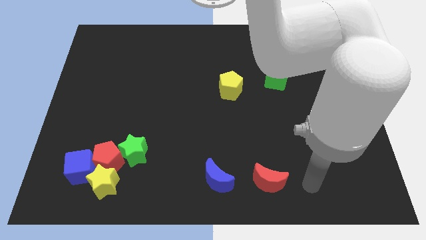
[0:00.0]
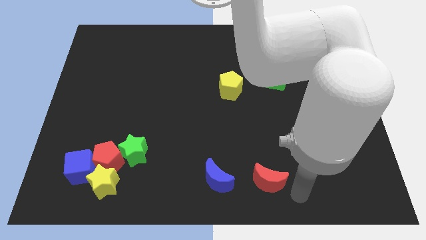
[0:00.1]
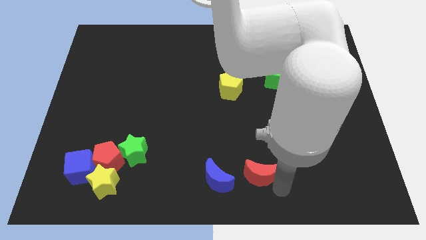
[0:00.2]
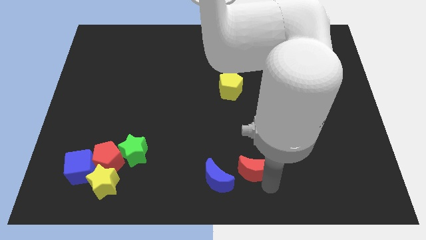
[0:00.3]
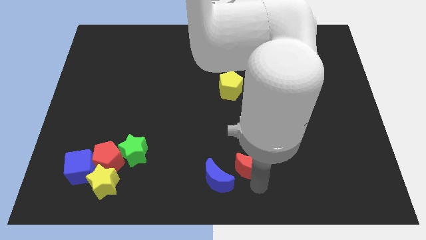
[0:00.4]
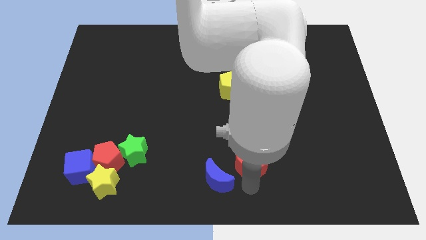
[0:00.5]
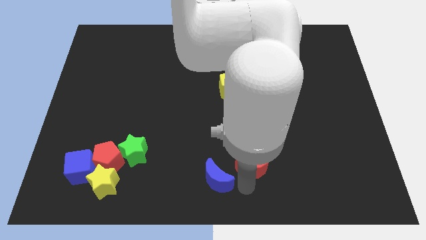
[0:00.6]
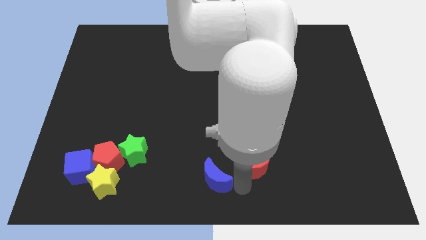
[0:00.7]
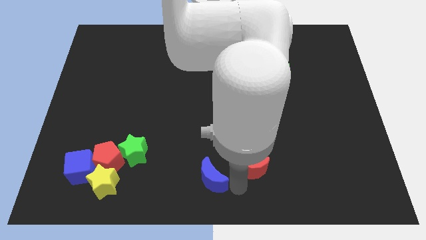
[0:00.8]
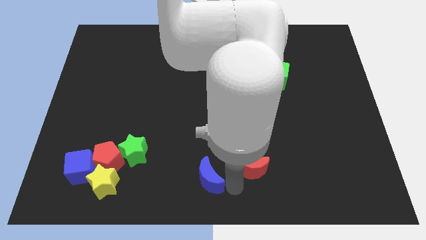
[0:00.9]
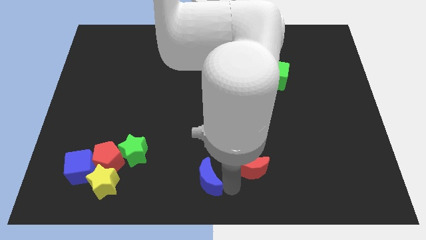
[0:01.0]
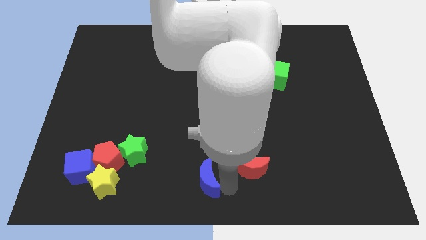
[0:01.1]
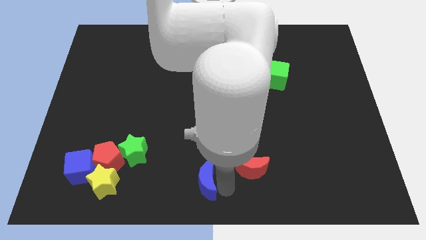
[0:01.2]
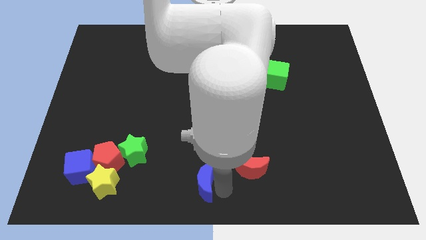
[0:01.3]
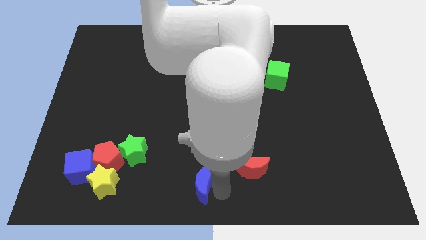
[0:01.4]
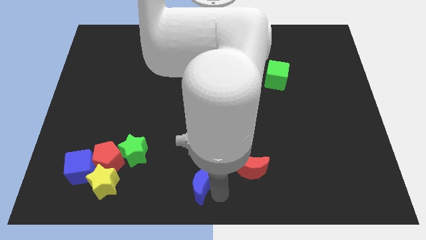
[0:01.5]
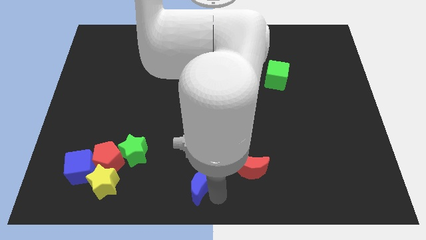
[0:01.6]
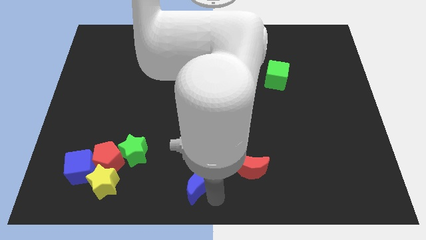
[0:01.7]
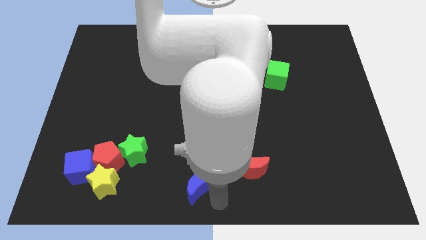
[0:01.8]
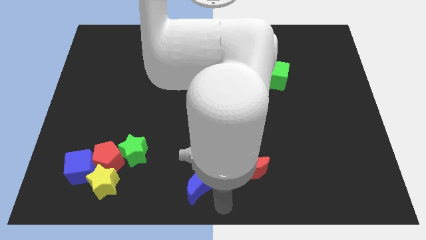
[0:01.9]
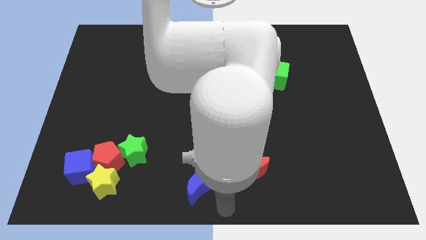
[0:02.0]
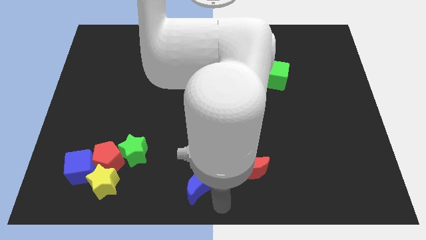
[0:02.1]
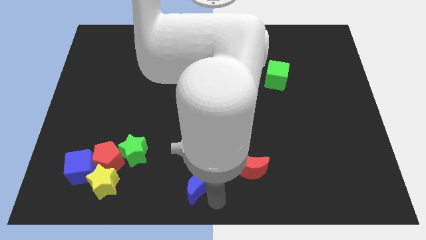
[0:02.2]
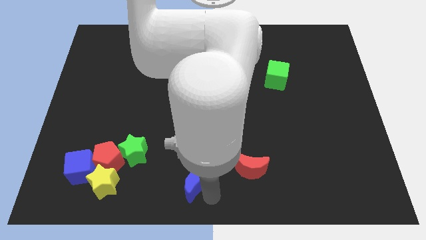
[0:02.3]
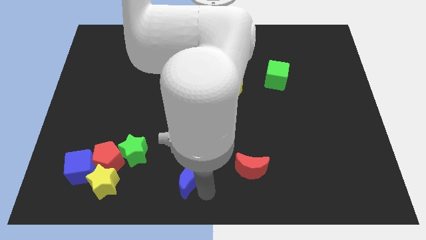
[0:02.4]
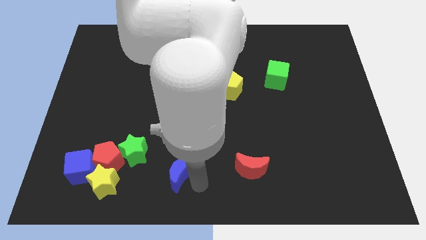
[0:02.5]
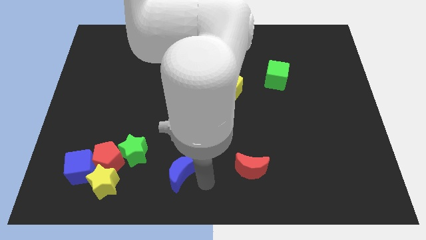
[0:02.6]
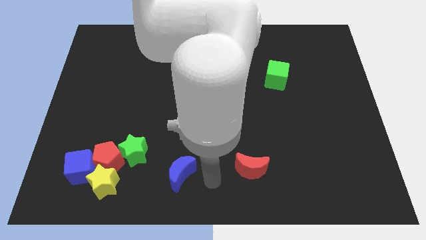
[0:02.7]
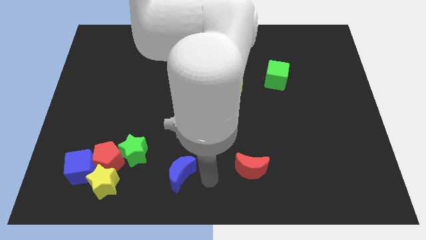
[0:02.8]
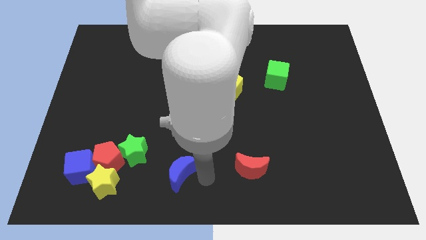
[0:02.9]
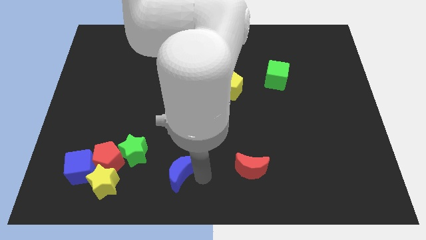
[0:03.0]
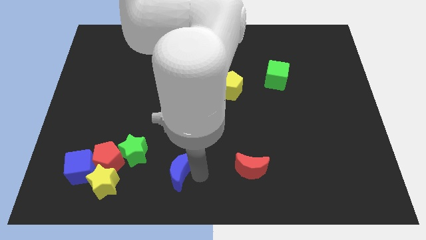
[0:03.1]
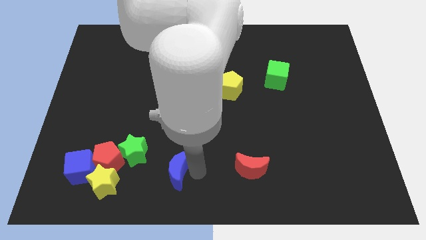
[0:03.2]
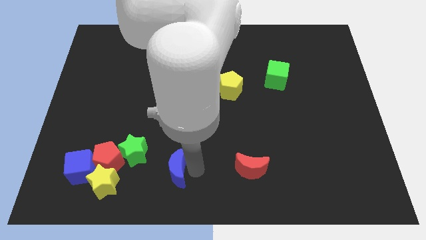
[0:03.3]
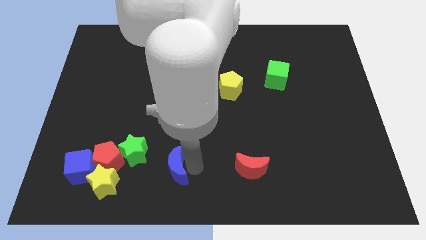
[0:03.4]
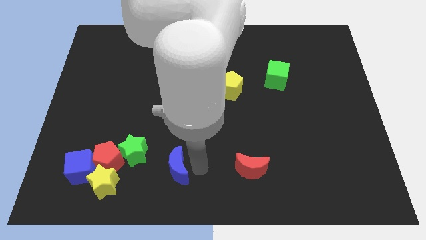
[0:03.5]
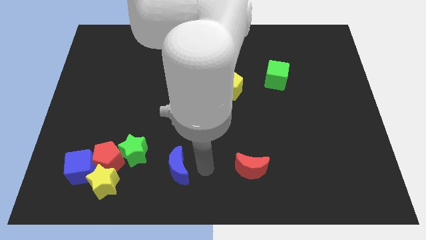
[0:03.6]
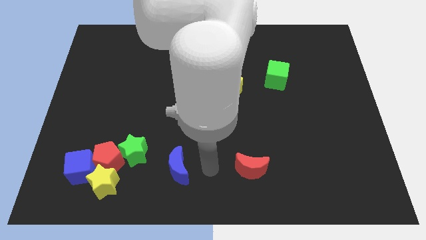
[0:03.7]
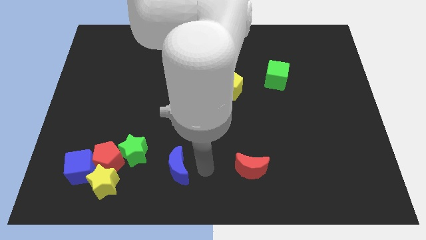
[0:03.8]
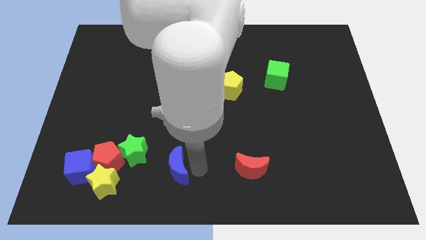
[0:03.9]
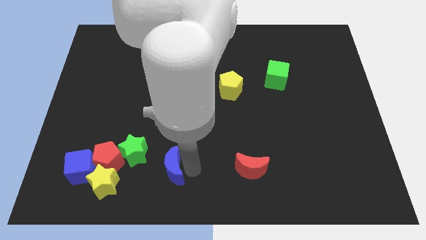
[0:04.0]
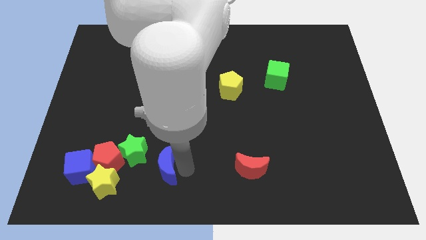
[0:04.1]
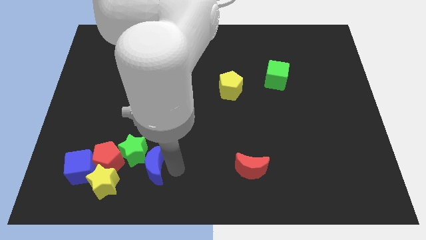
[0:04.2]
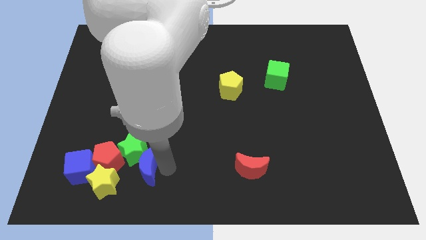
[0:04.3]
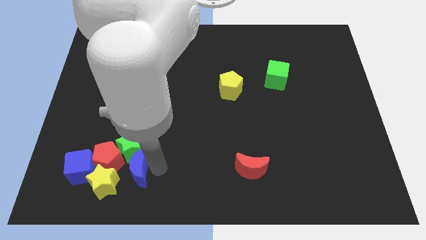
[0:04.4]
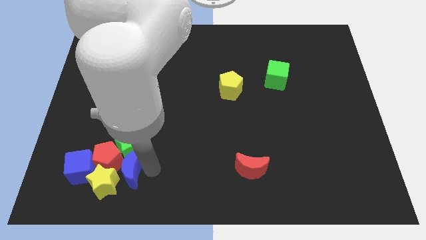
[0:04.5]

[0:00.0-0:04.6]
put the blue moon close to the red pentagon

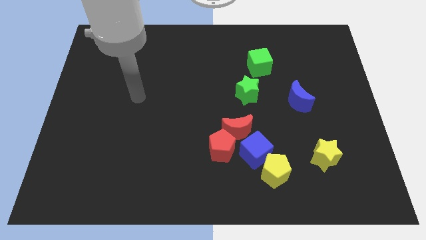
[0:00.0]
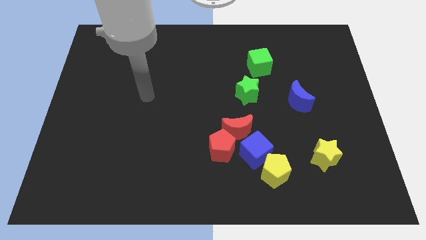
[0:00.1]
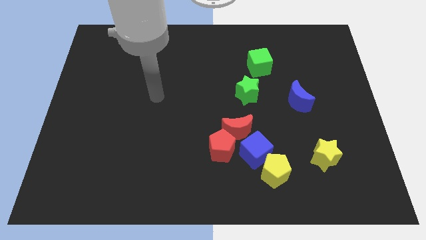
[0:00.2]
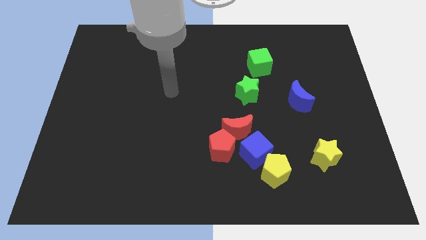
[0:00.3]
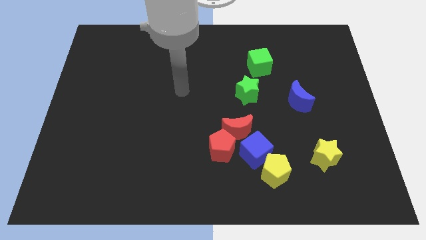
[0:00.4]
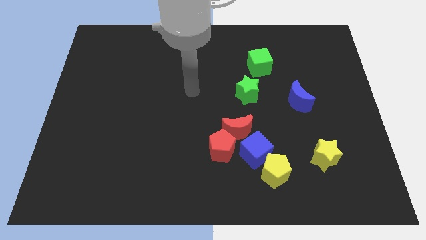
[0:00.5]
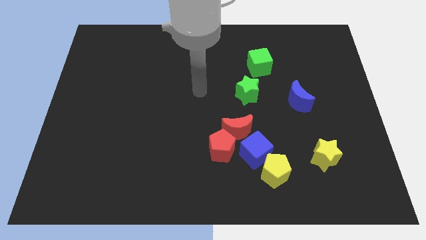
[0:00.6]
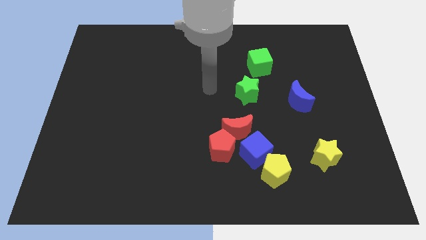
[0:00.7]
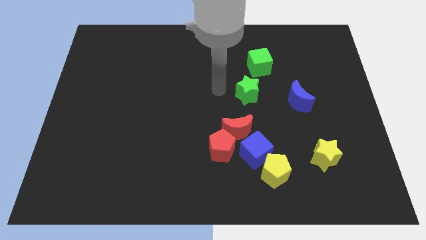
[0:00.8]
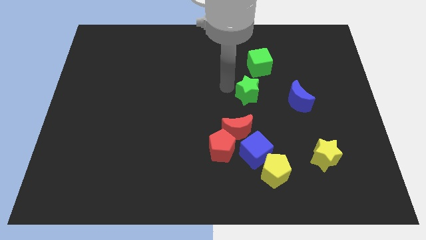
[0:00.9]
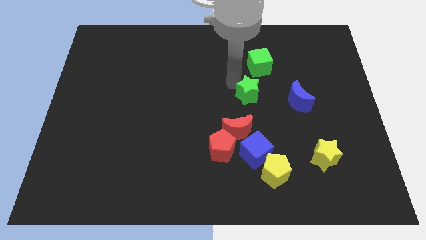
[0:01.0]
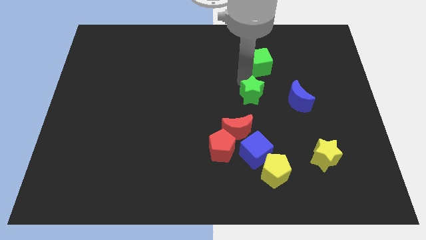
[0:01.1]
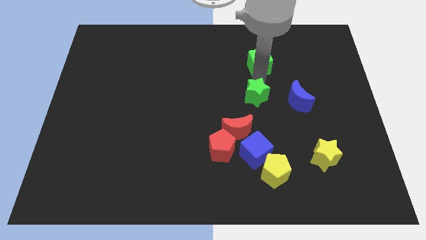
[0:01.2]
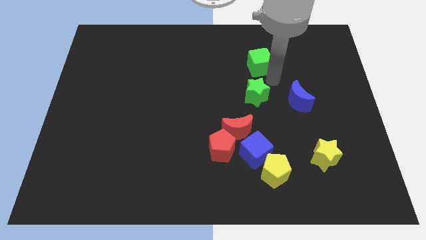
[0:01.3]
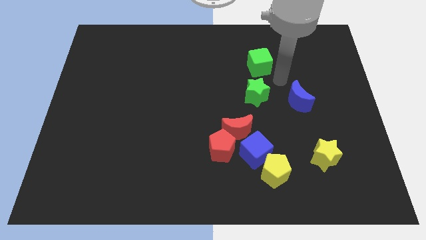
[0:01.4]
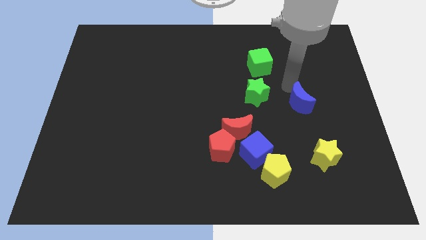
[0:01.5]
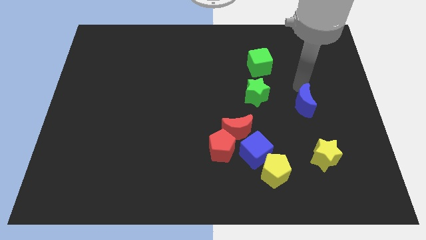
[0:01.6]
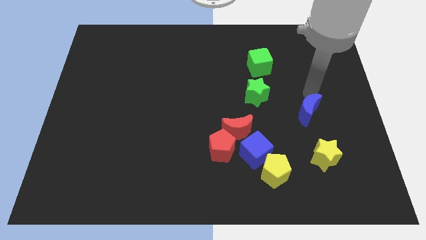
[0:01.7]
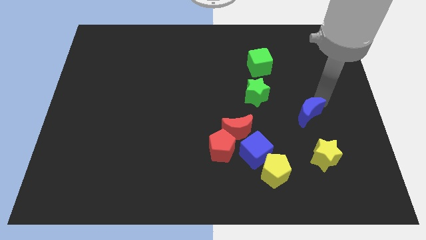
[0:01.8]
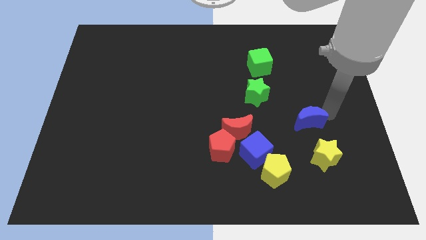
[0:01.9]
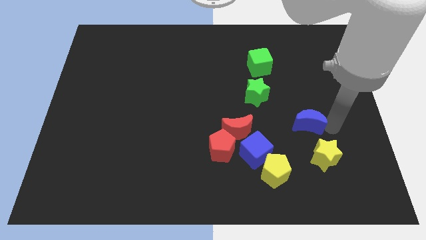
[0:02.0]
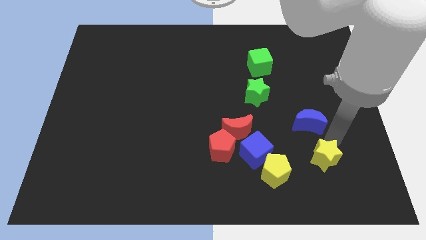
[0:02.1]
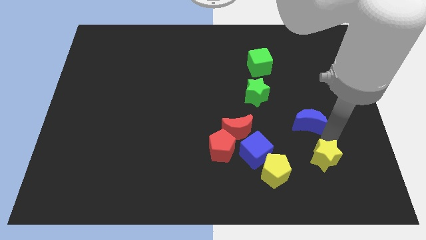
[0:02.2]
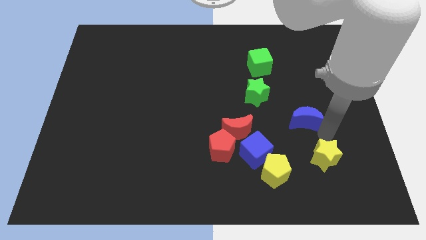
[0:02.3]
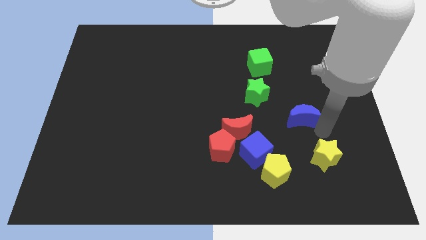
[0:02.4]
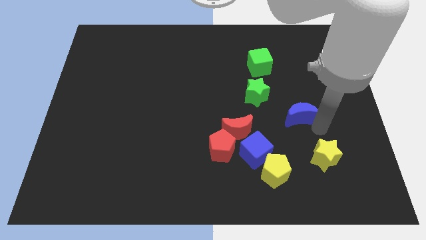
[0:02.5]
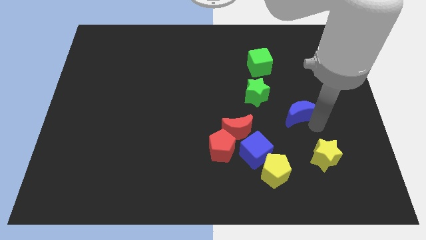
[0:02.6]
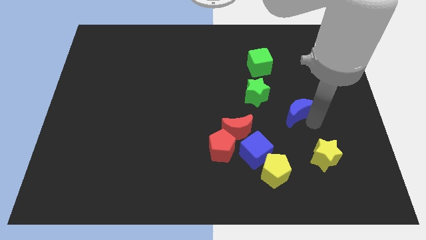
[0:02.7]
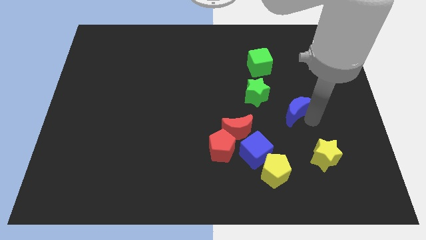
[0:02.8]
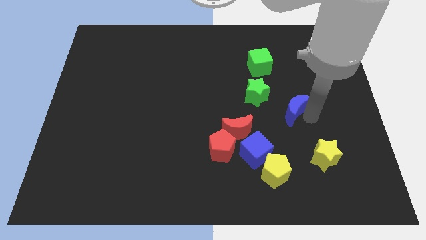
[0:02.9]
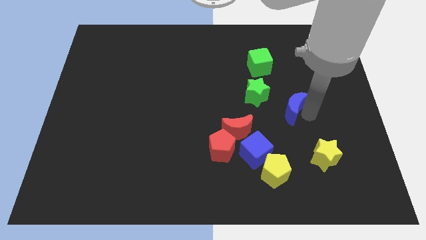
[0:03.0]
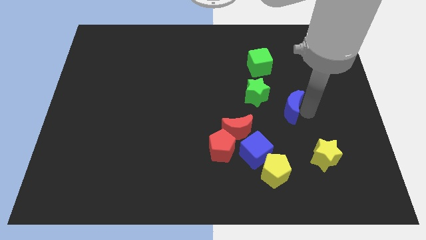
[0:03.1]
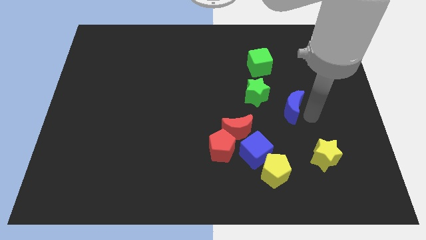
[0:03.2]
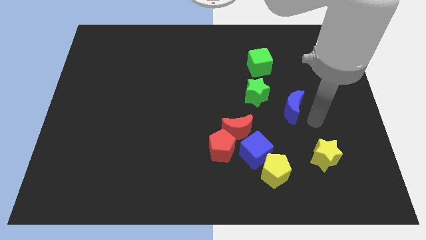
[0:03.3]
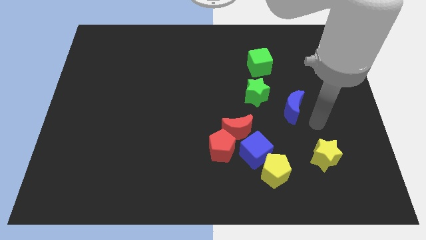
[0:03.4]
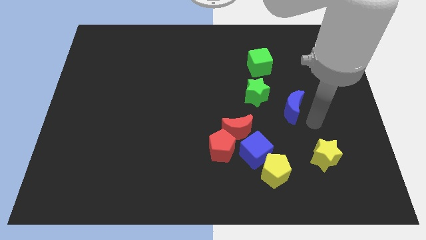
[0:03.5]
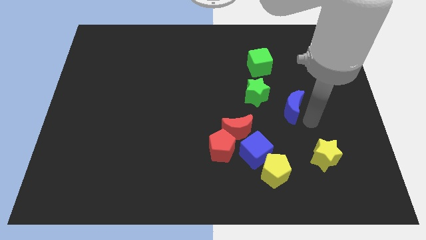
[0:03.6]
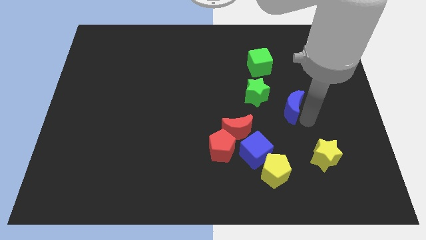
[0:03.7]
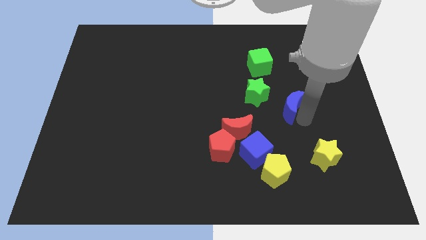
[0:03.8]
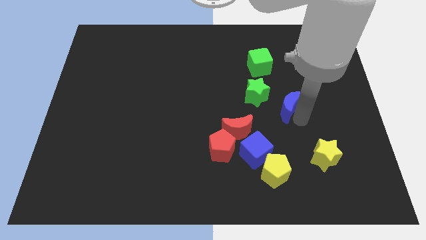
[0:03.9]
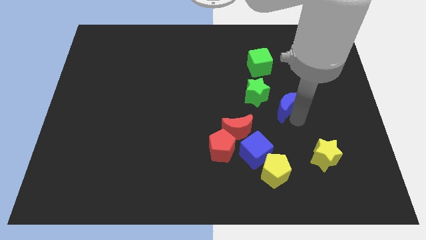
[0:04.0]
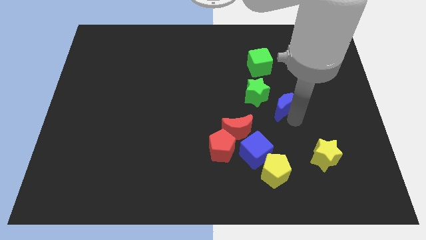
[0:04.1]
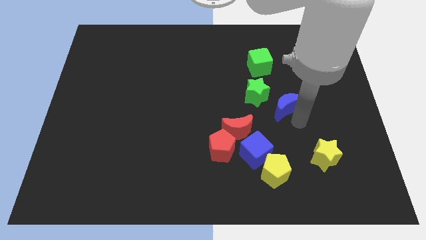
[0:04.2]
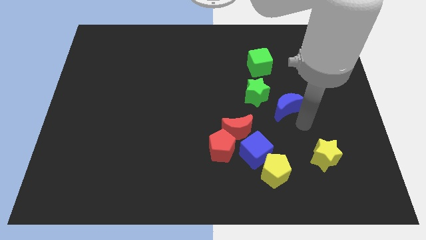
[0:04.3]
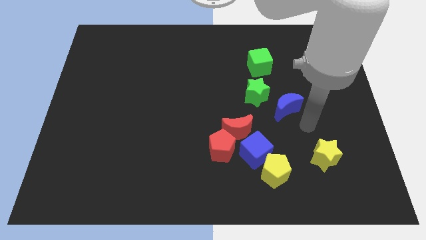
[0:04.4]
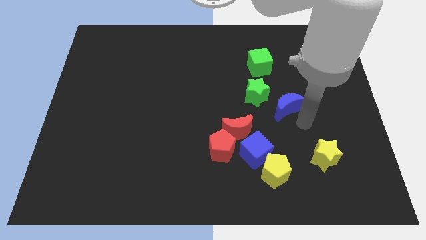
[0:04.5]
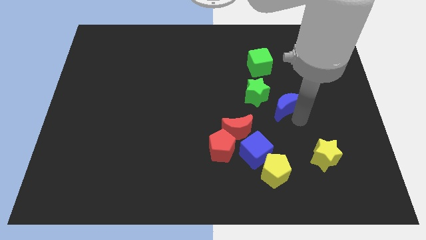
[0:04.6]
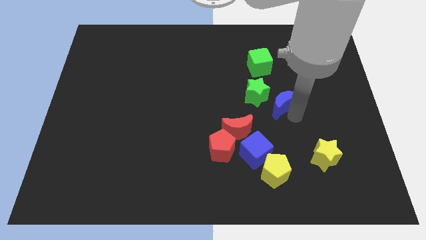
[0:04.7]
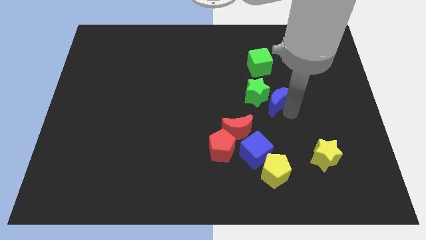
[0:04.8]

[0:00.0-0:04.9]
put the blue moon to the green star
